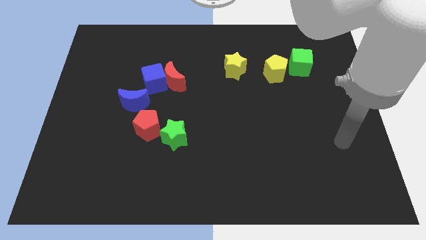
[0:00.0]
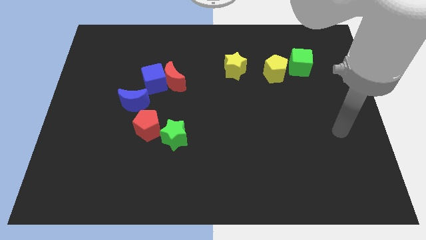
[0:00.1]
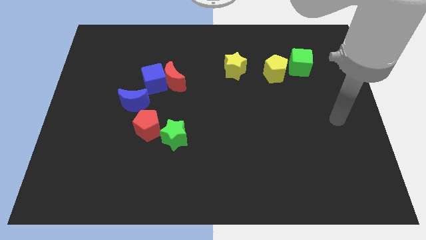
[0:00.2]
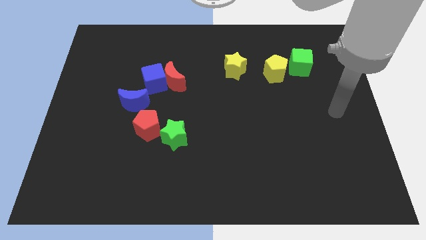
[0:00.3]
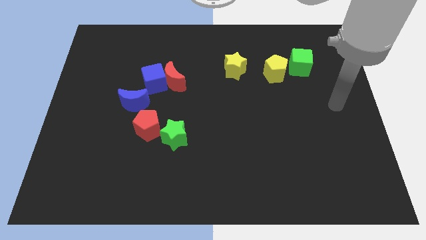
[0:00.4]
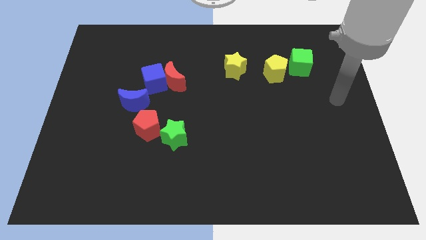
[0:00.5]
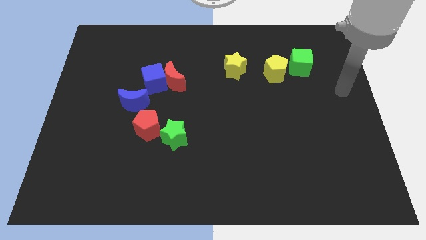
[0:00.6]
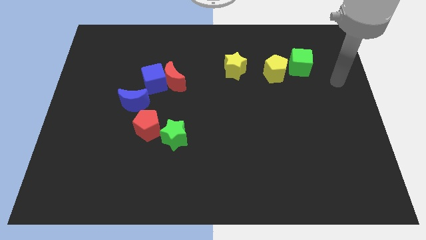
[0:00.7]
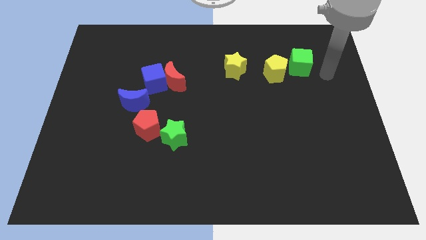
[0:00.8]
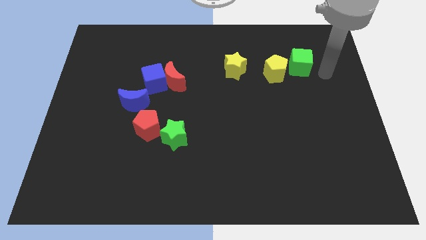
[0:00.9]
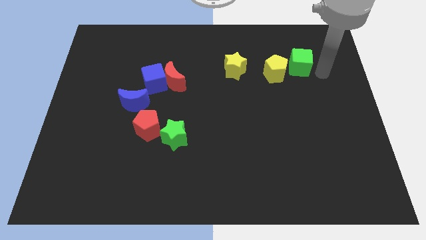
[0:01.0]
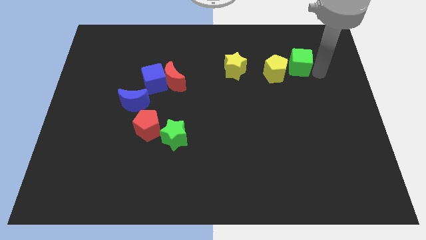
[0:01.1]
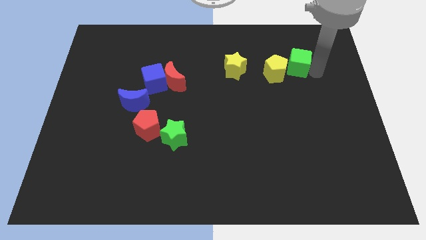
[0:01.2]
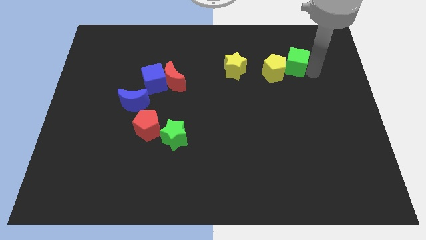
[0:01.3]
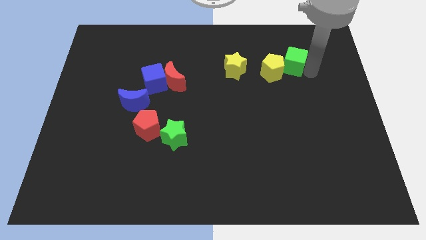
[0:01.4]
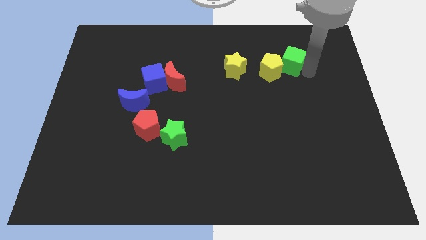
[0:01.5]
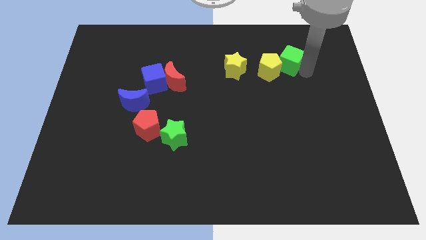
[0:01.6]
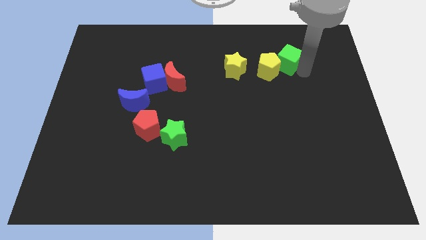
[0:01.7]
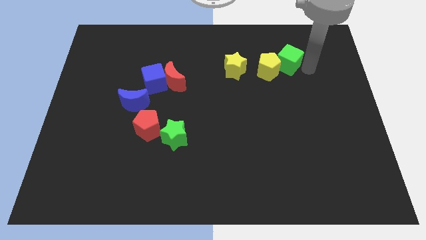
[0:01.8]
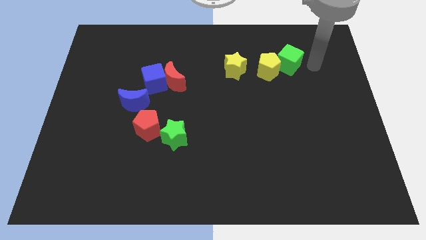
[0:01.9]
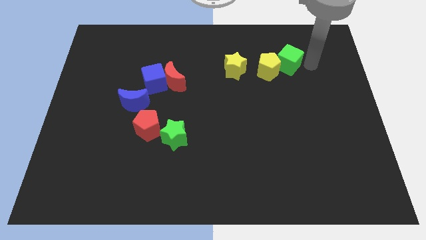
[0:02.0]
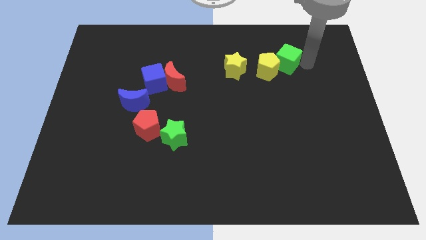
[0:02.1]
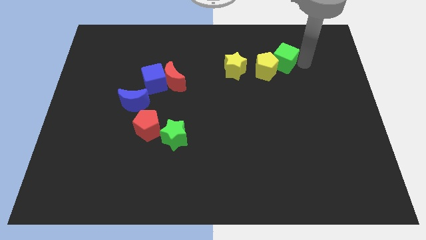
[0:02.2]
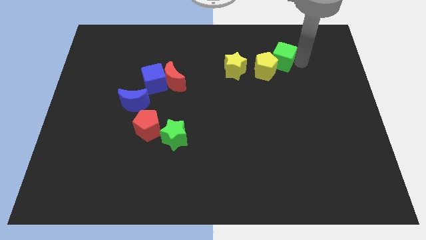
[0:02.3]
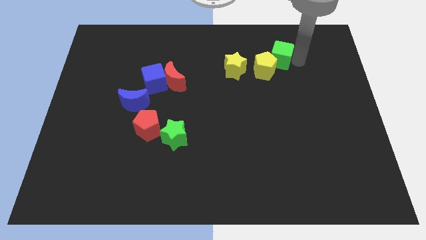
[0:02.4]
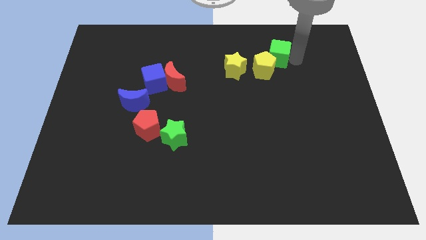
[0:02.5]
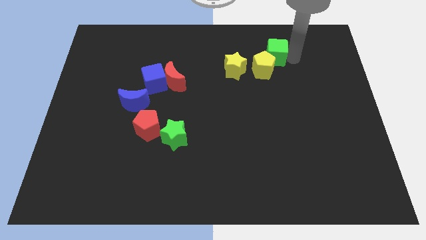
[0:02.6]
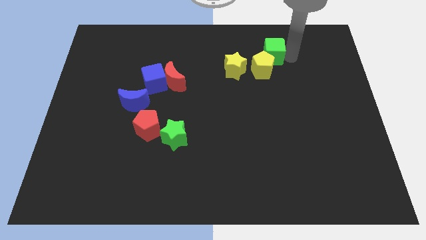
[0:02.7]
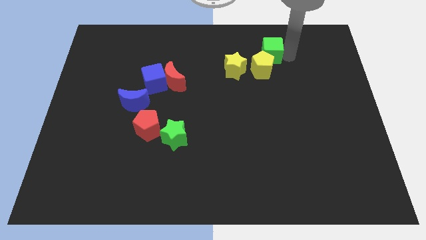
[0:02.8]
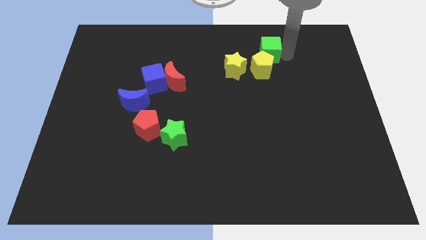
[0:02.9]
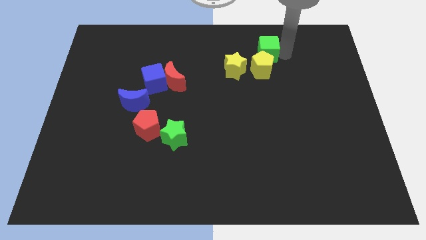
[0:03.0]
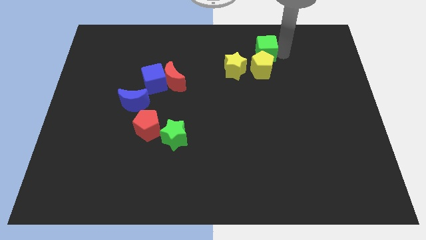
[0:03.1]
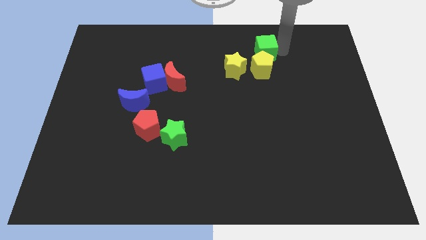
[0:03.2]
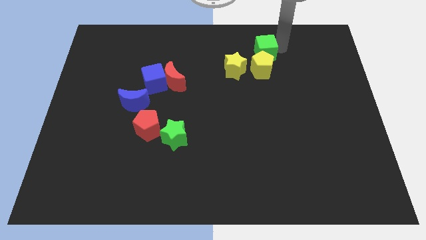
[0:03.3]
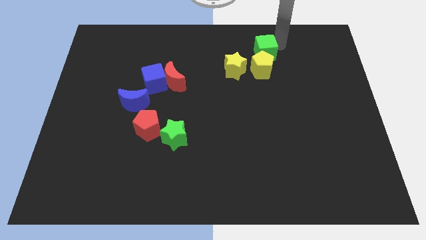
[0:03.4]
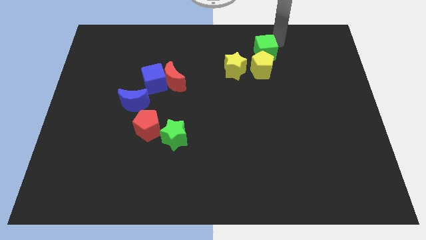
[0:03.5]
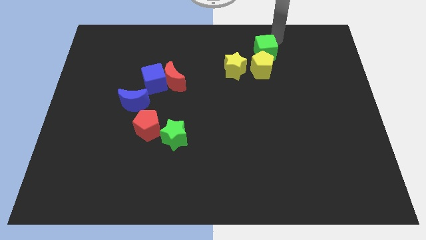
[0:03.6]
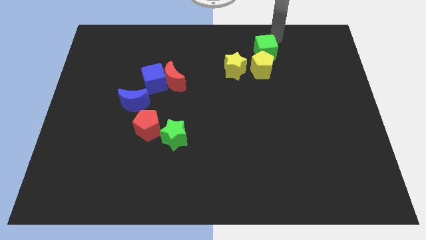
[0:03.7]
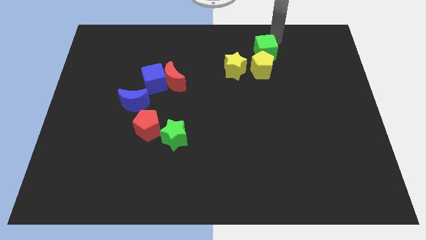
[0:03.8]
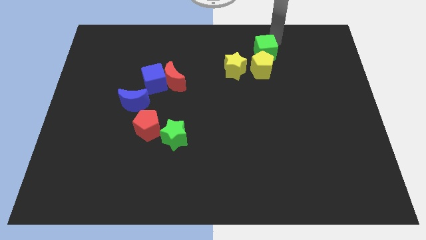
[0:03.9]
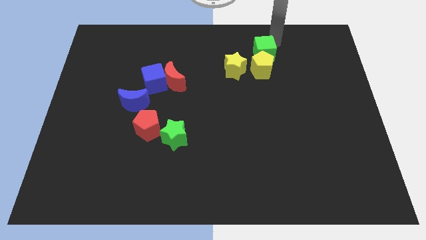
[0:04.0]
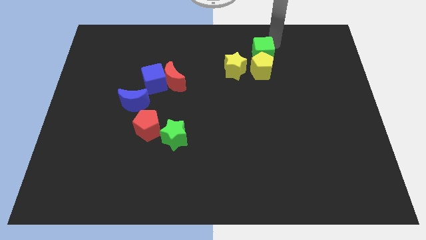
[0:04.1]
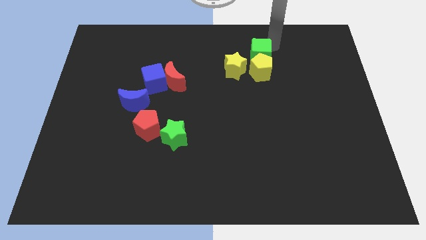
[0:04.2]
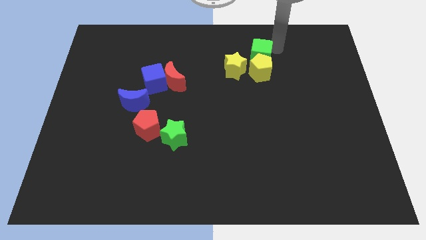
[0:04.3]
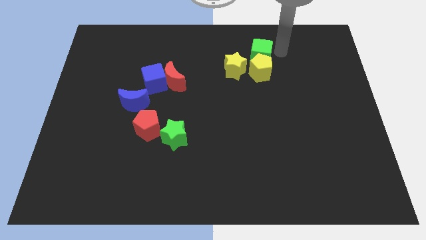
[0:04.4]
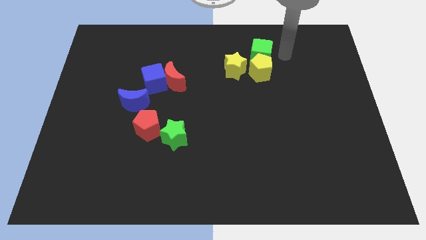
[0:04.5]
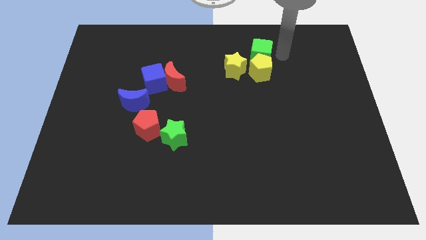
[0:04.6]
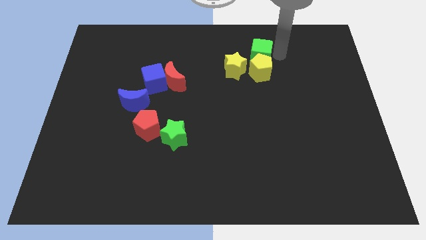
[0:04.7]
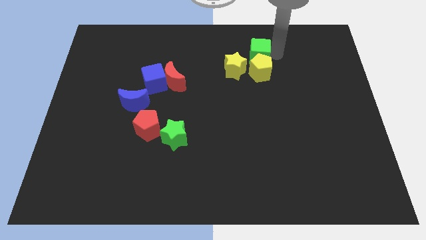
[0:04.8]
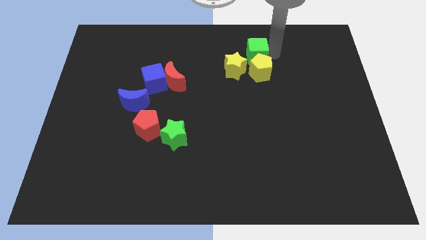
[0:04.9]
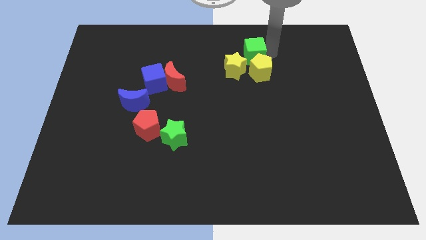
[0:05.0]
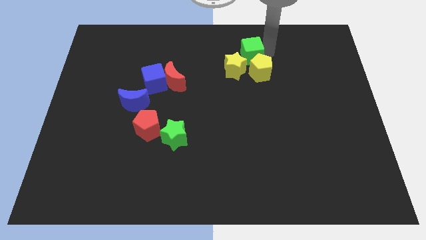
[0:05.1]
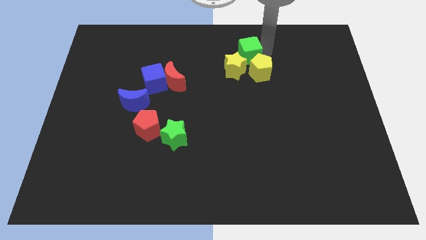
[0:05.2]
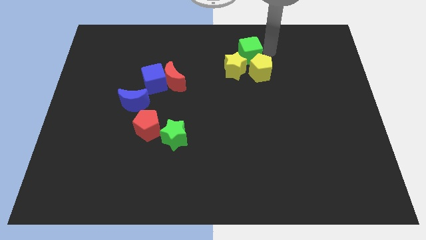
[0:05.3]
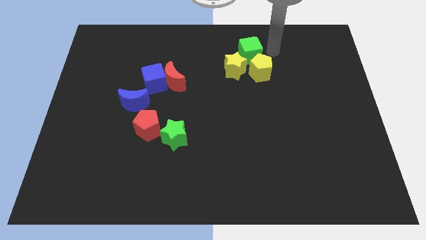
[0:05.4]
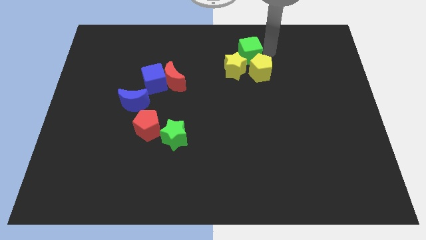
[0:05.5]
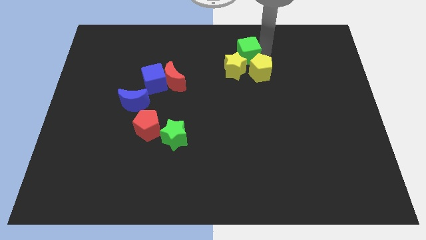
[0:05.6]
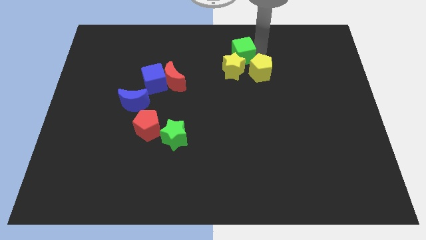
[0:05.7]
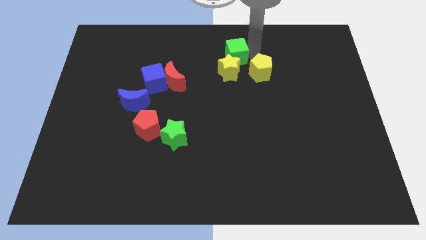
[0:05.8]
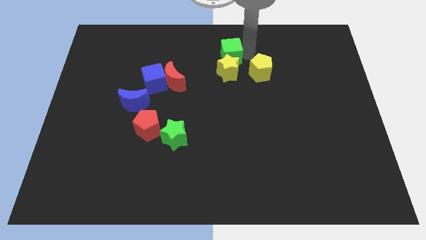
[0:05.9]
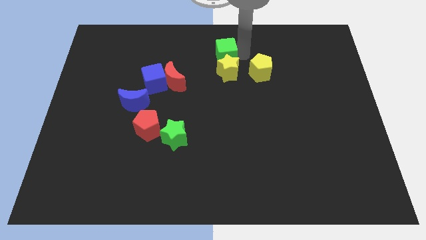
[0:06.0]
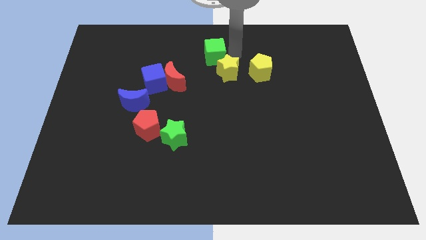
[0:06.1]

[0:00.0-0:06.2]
slide the green cube left

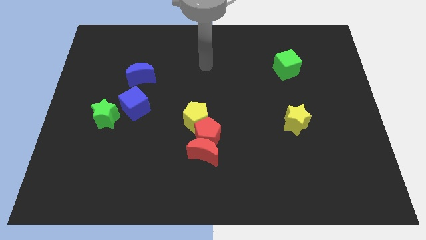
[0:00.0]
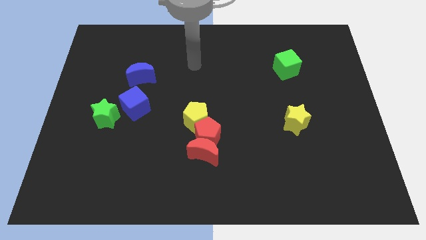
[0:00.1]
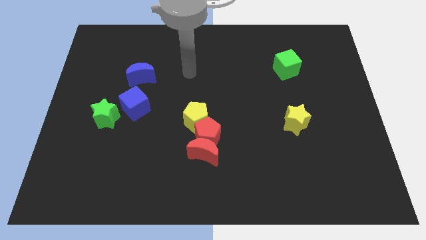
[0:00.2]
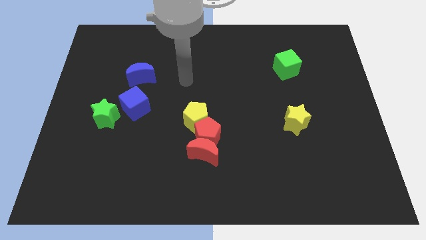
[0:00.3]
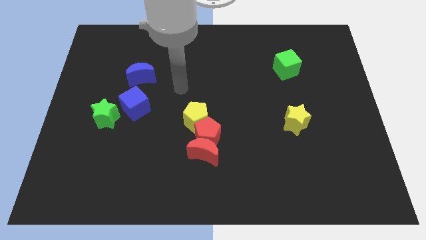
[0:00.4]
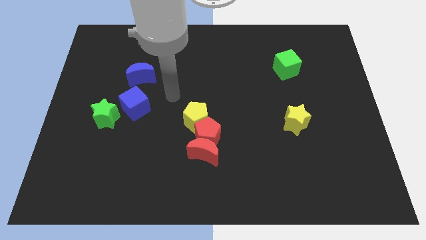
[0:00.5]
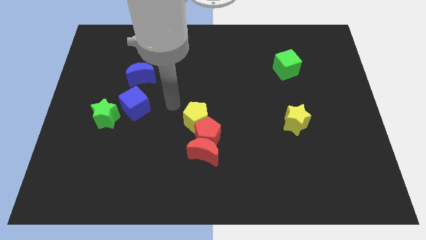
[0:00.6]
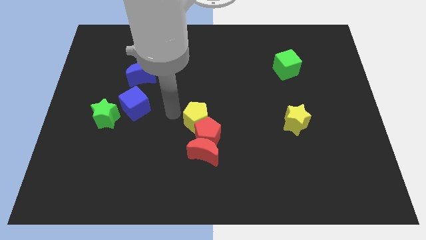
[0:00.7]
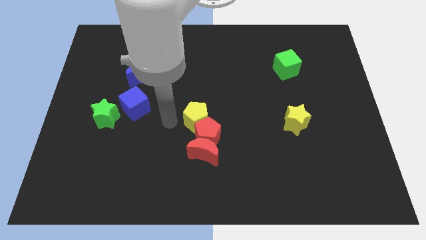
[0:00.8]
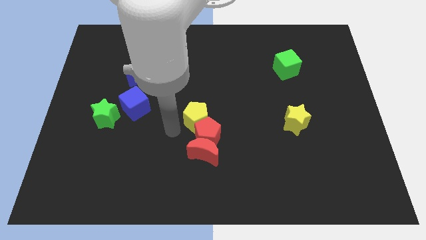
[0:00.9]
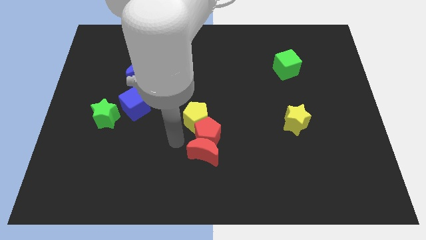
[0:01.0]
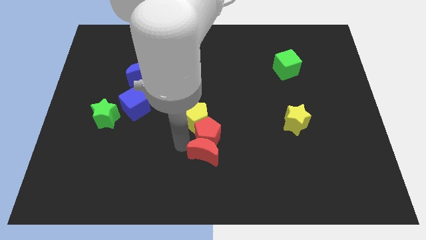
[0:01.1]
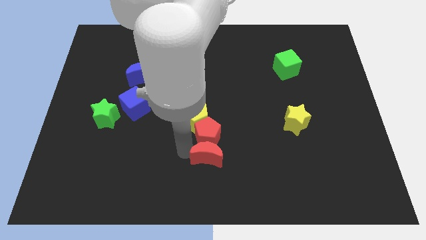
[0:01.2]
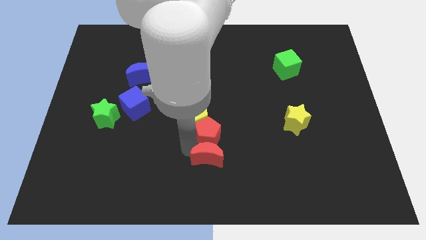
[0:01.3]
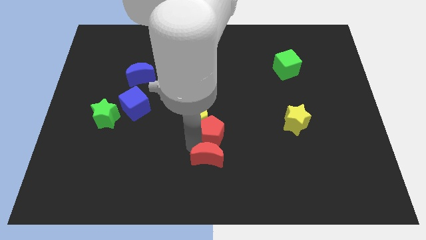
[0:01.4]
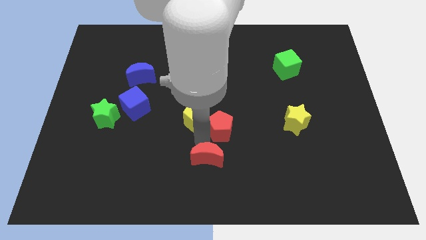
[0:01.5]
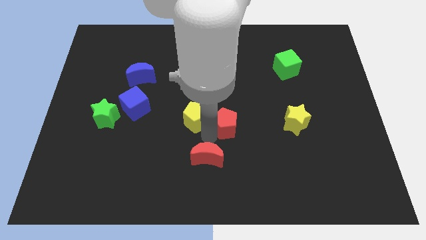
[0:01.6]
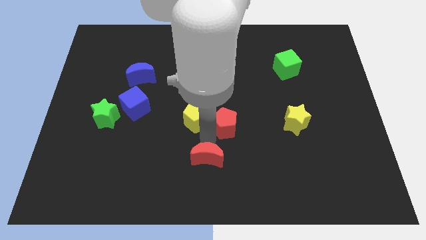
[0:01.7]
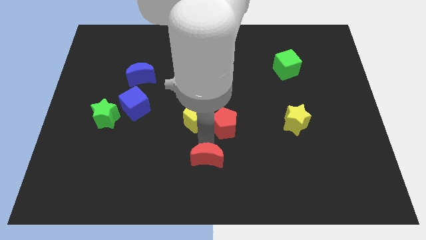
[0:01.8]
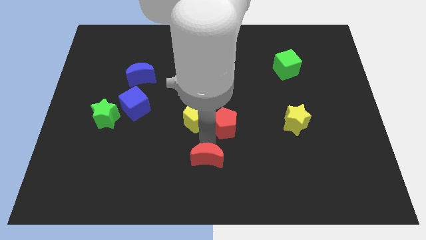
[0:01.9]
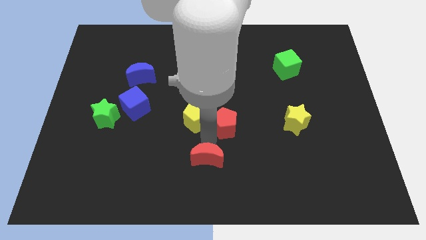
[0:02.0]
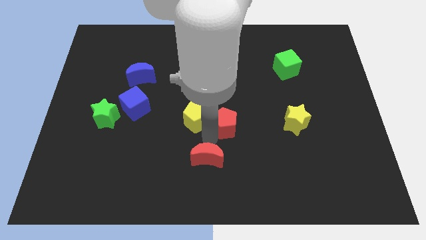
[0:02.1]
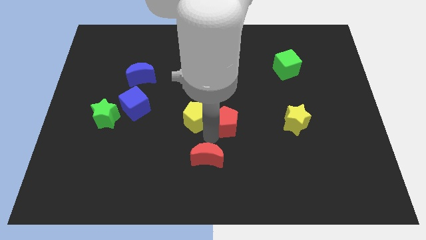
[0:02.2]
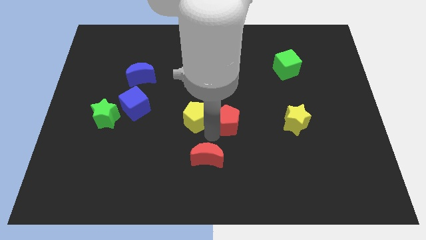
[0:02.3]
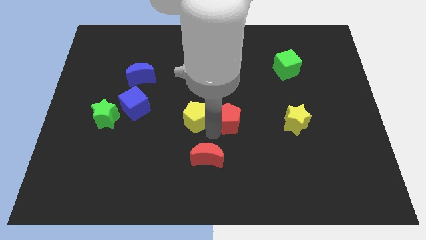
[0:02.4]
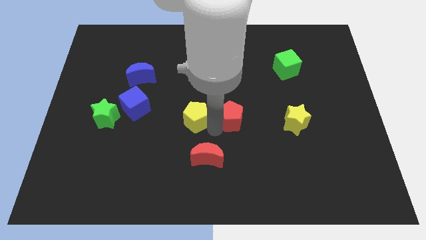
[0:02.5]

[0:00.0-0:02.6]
slide the red pentagon slightly diagonally upwards and to the right
